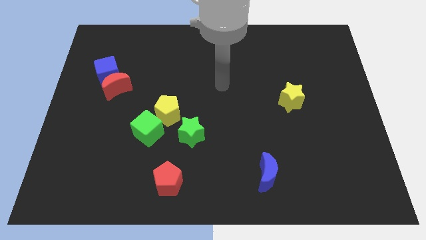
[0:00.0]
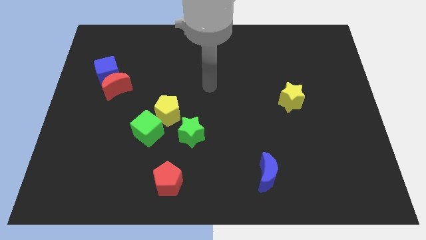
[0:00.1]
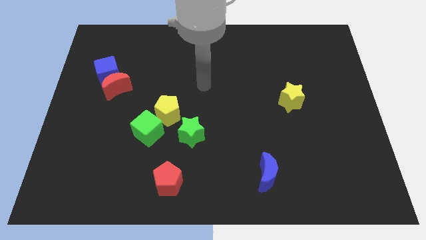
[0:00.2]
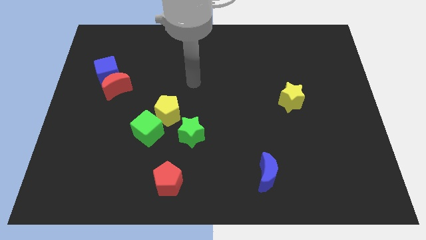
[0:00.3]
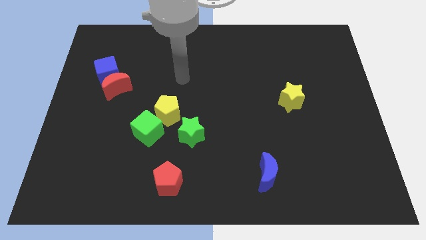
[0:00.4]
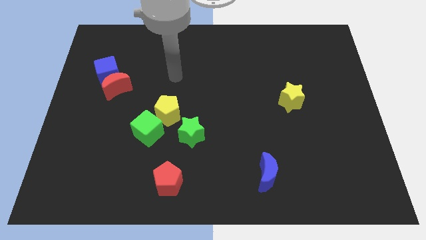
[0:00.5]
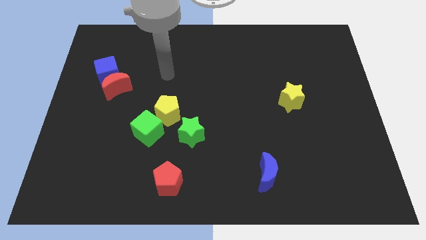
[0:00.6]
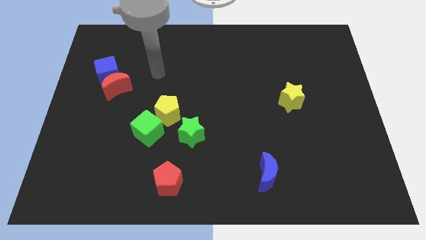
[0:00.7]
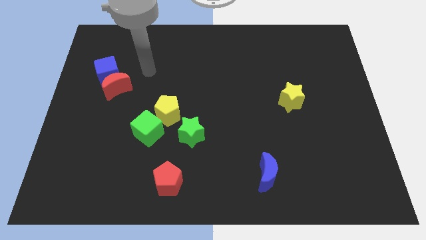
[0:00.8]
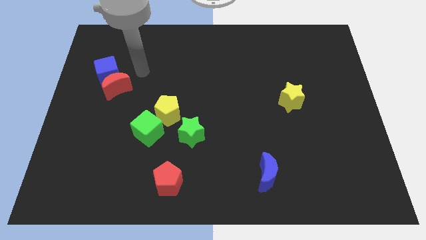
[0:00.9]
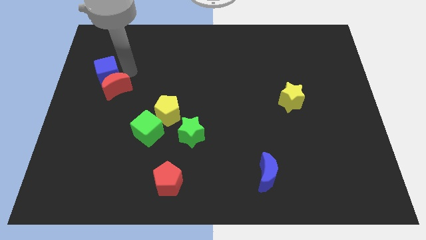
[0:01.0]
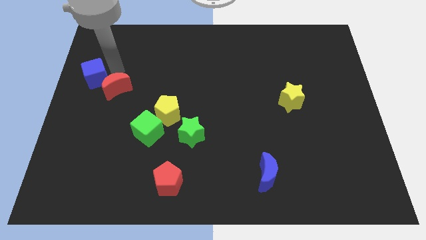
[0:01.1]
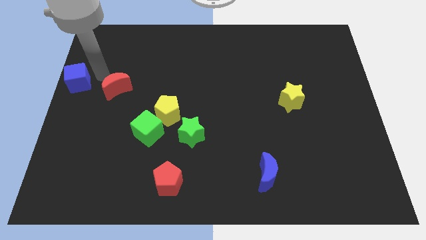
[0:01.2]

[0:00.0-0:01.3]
separate the red moon from the blue cube

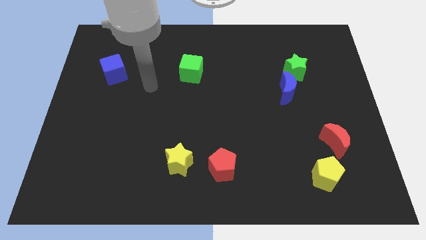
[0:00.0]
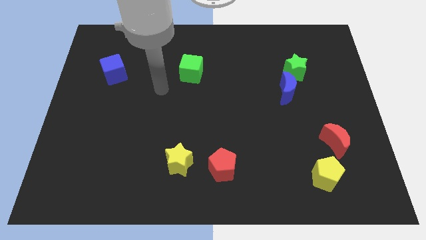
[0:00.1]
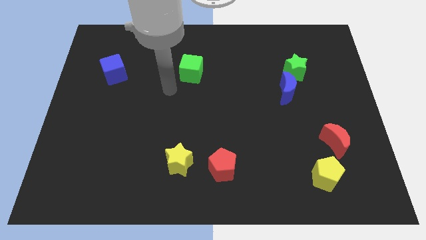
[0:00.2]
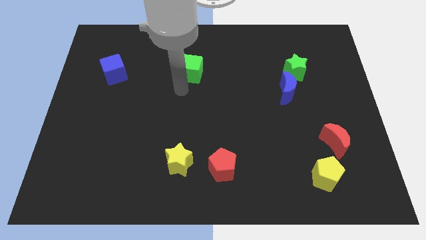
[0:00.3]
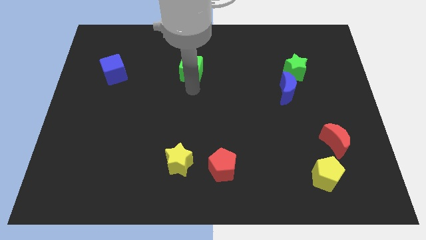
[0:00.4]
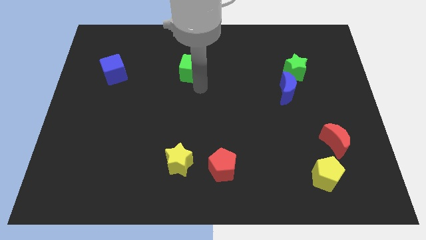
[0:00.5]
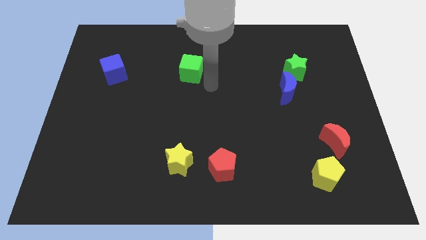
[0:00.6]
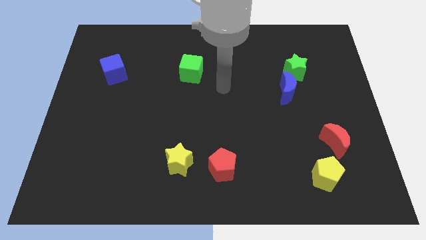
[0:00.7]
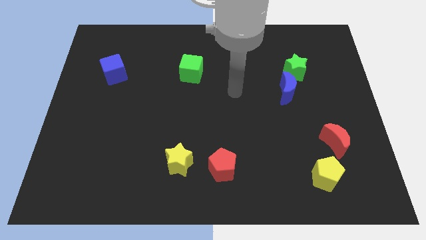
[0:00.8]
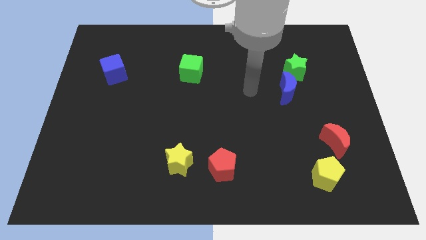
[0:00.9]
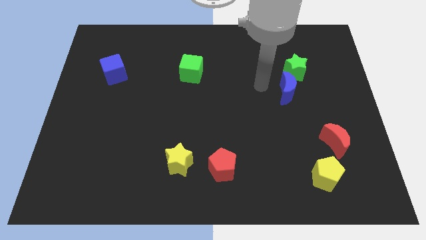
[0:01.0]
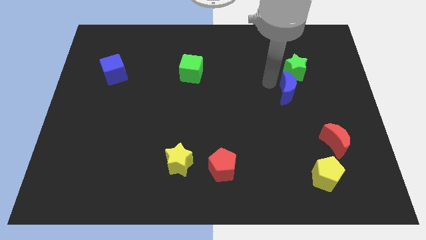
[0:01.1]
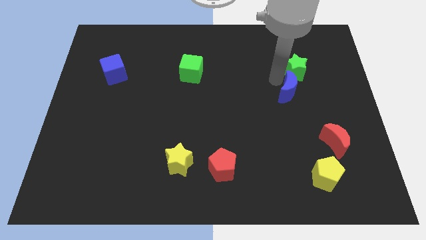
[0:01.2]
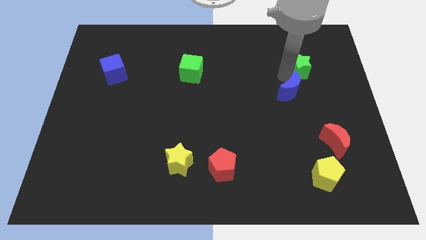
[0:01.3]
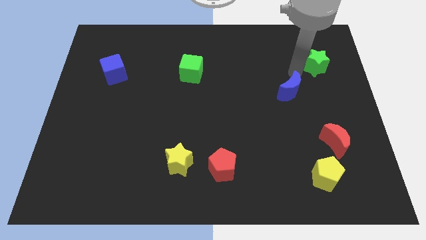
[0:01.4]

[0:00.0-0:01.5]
separate the blue moon from the green star

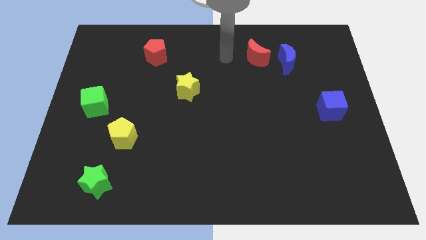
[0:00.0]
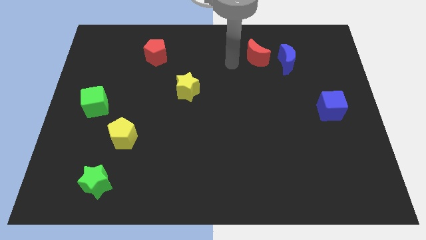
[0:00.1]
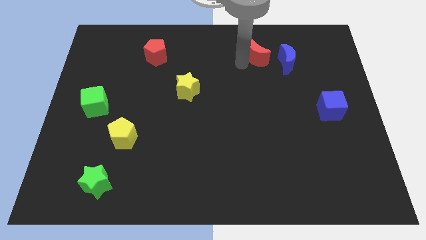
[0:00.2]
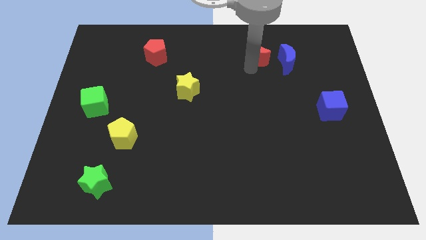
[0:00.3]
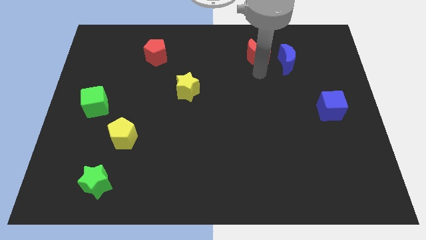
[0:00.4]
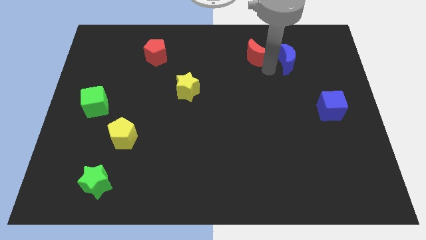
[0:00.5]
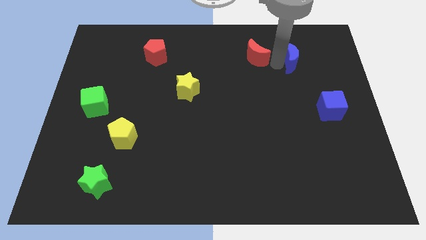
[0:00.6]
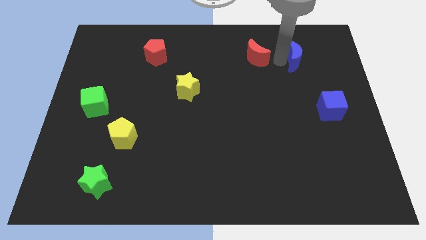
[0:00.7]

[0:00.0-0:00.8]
separate the red moon from the blue moon

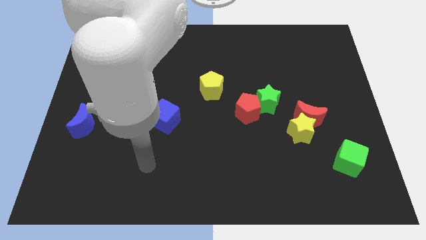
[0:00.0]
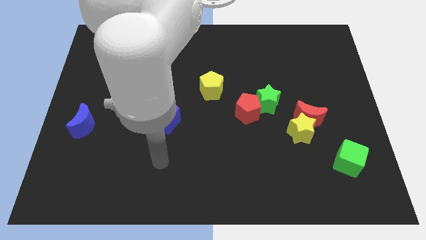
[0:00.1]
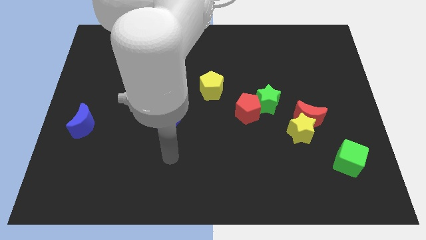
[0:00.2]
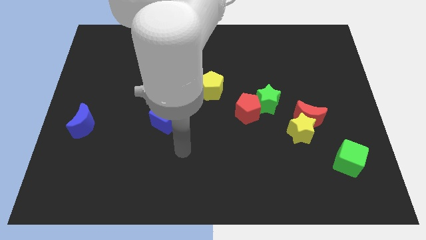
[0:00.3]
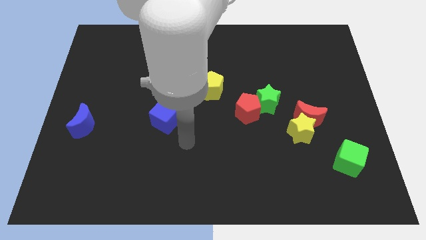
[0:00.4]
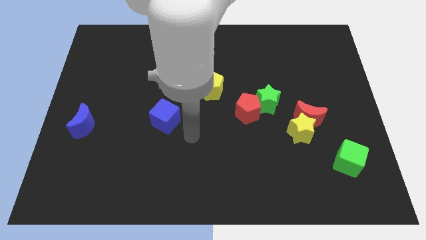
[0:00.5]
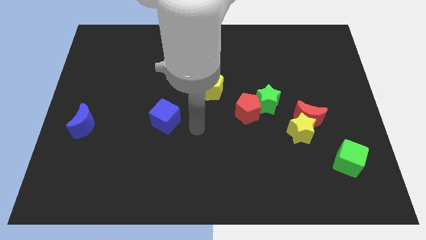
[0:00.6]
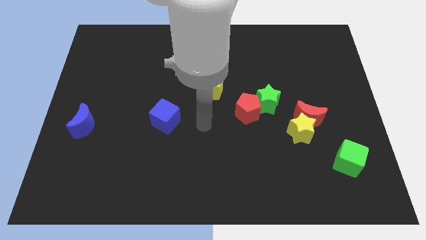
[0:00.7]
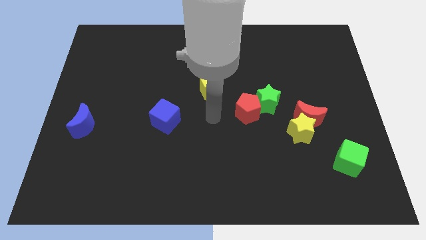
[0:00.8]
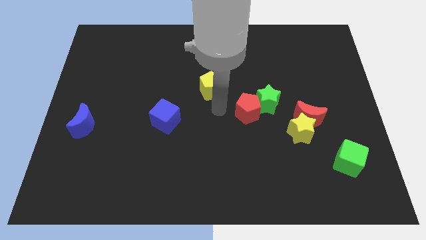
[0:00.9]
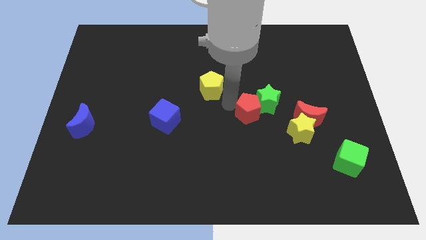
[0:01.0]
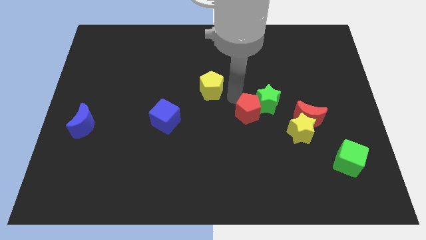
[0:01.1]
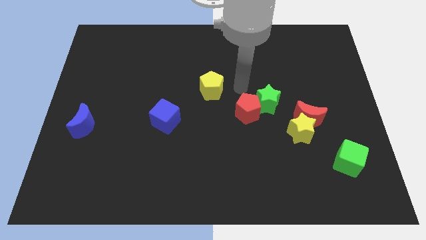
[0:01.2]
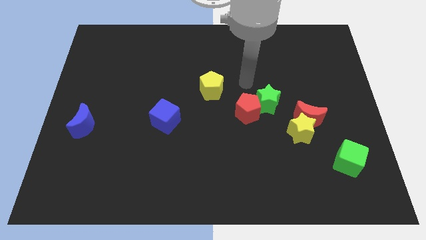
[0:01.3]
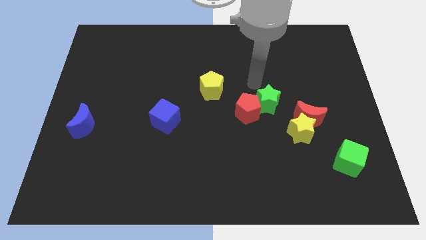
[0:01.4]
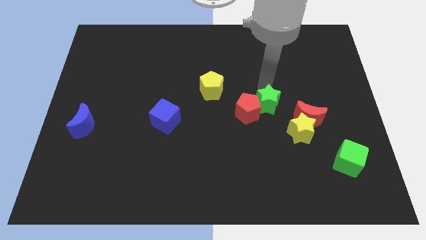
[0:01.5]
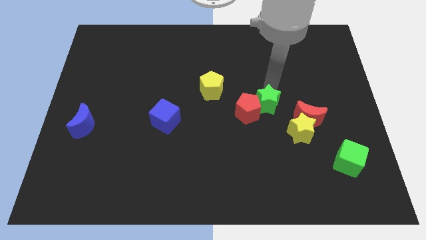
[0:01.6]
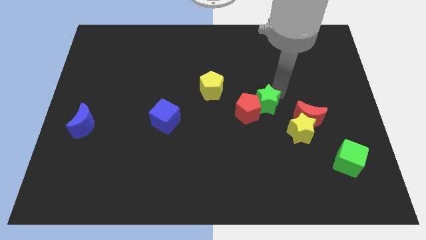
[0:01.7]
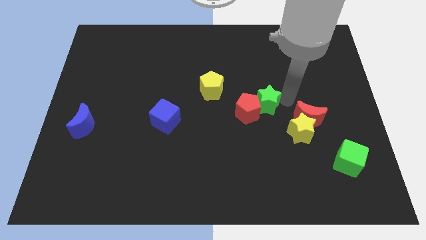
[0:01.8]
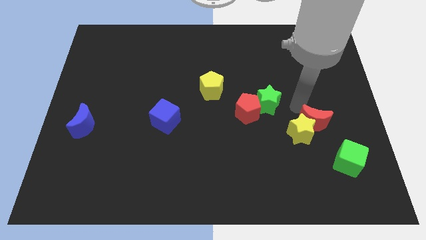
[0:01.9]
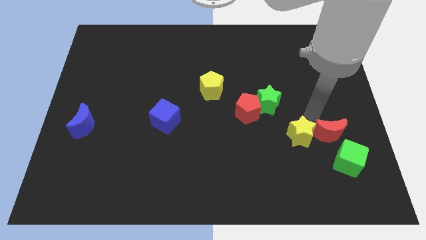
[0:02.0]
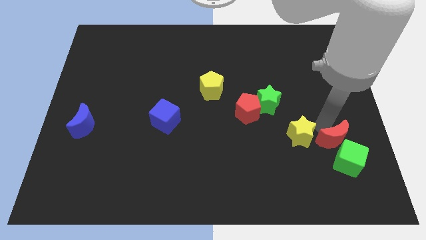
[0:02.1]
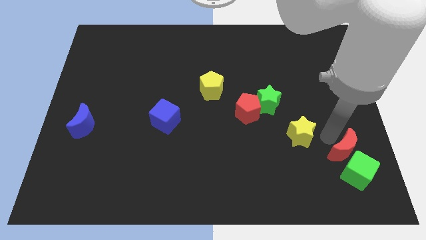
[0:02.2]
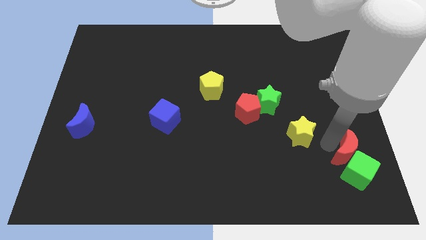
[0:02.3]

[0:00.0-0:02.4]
pull the yellow star apart from the red moon

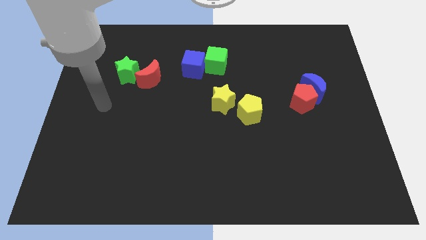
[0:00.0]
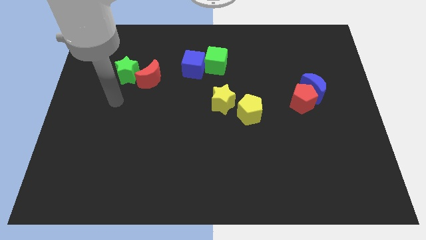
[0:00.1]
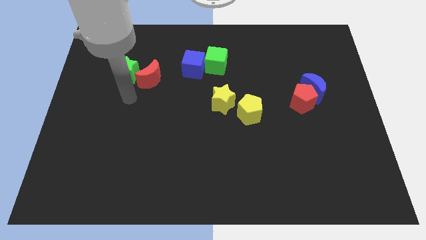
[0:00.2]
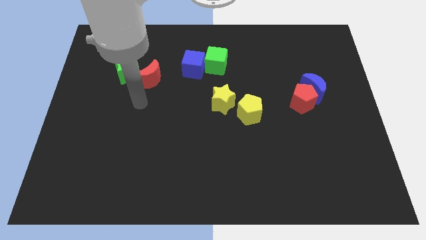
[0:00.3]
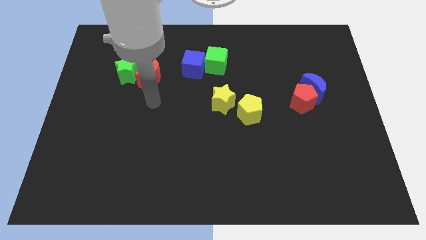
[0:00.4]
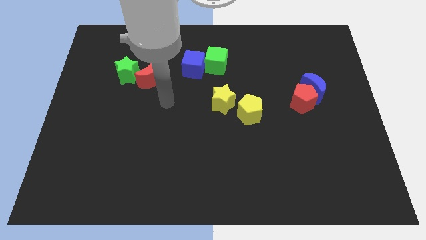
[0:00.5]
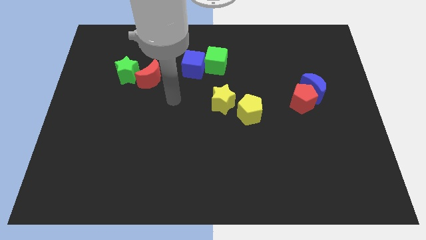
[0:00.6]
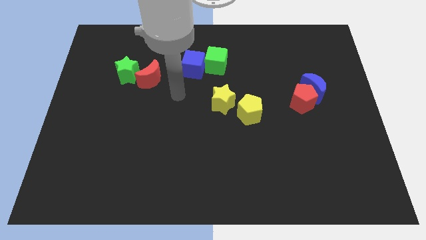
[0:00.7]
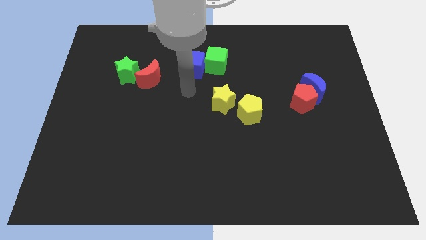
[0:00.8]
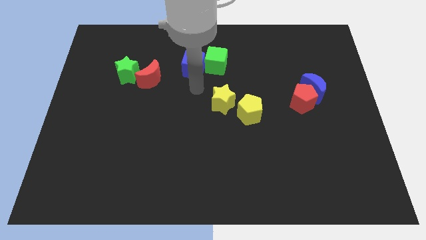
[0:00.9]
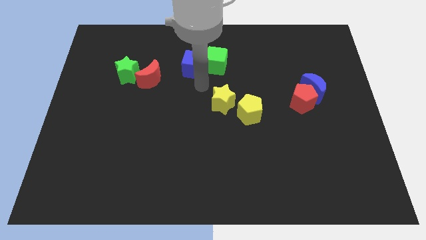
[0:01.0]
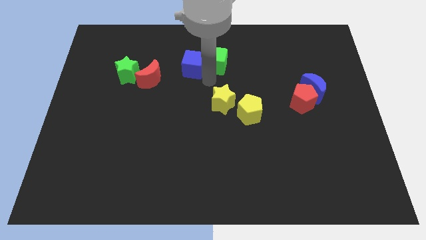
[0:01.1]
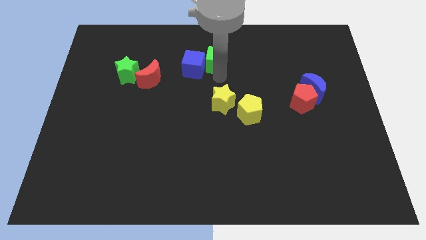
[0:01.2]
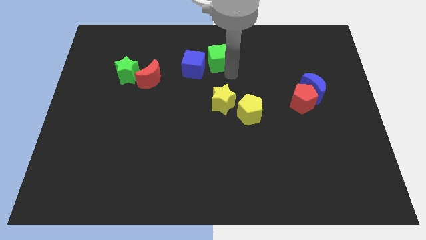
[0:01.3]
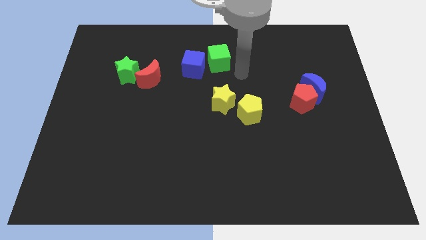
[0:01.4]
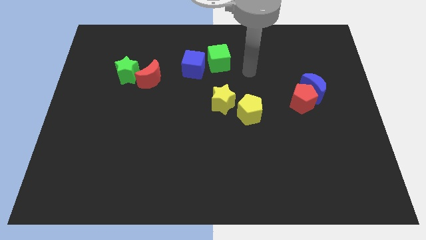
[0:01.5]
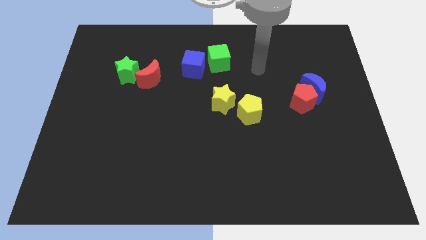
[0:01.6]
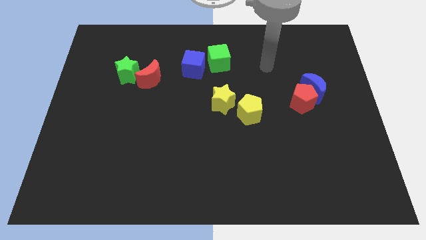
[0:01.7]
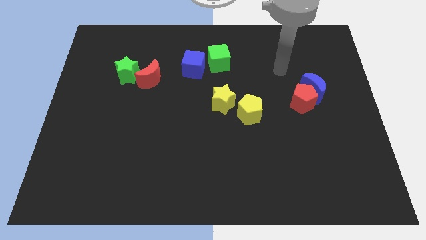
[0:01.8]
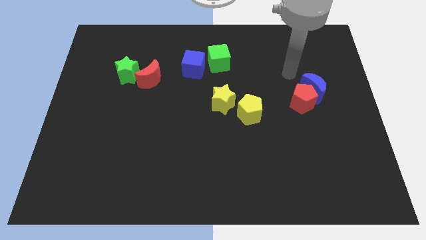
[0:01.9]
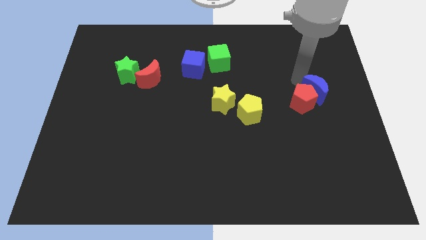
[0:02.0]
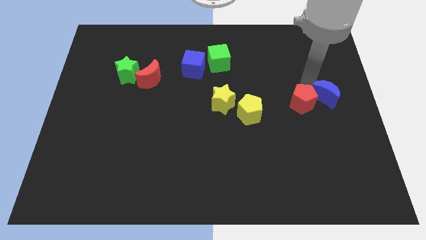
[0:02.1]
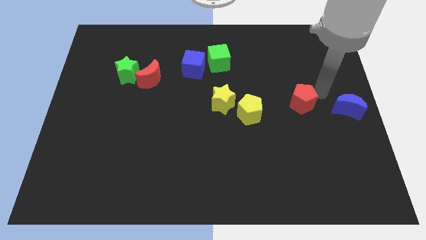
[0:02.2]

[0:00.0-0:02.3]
move the red pentagon away from the blue moon

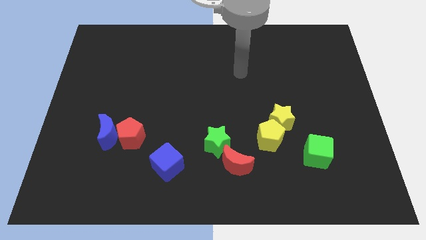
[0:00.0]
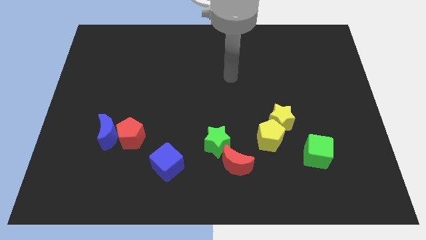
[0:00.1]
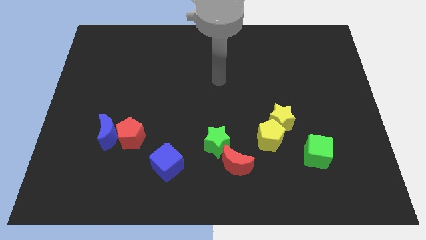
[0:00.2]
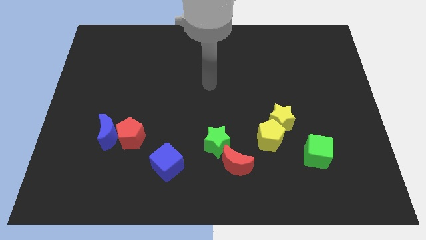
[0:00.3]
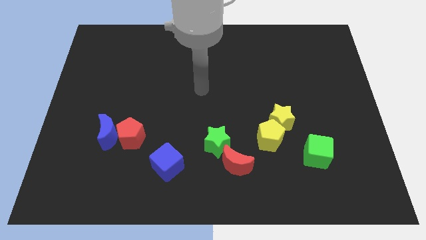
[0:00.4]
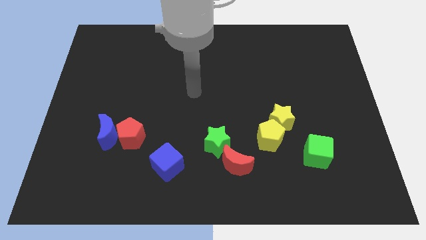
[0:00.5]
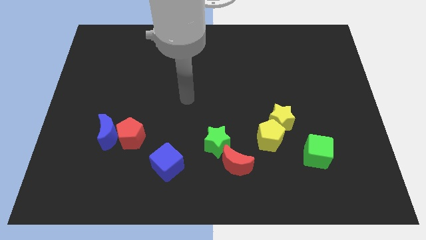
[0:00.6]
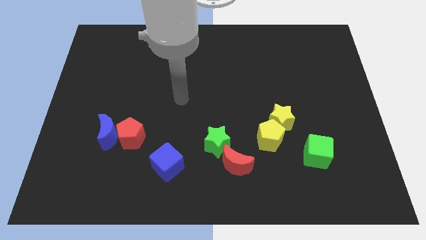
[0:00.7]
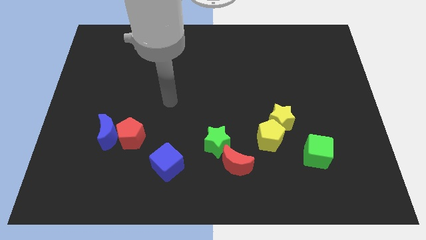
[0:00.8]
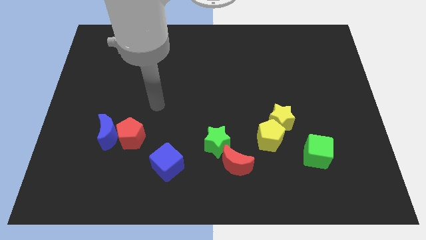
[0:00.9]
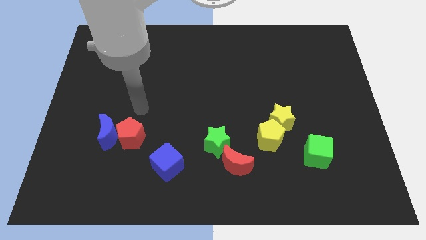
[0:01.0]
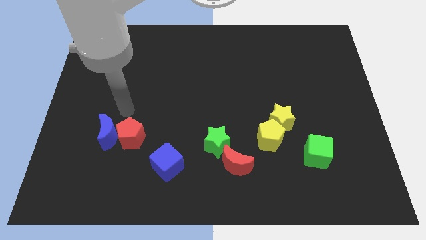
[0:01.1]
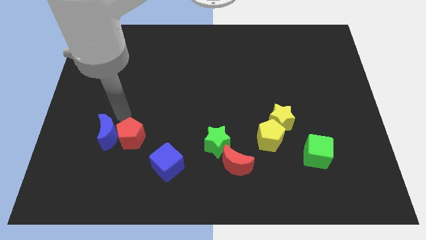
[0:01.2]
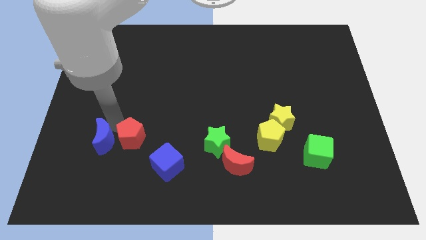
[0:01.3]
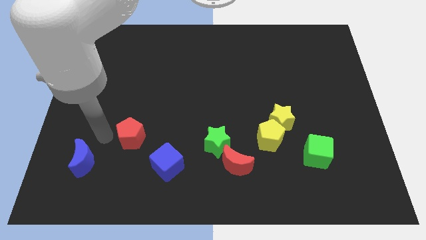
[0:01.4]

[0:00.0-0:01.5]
pull the red pentagon apart from the blue moon